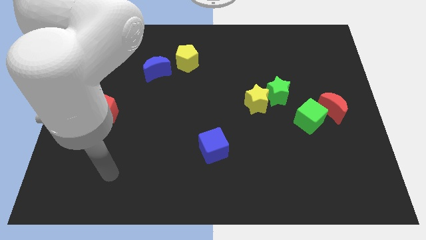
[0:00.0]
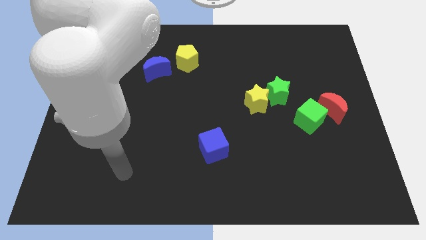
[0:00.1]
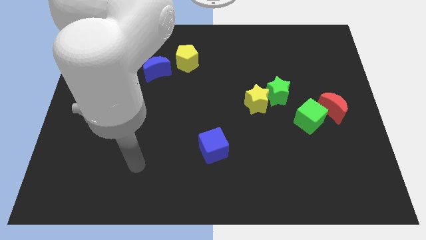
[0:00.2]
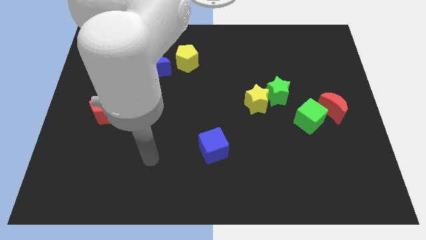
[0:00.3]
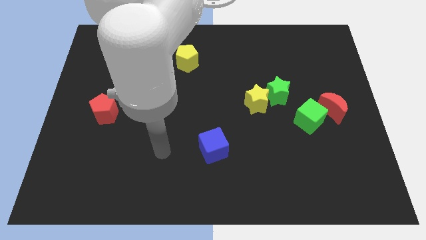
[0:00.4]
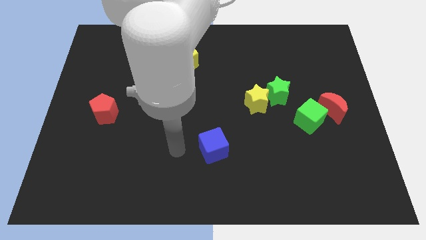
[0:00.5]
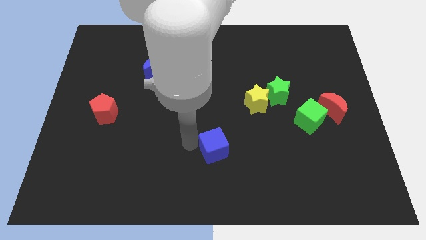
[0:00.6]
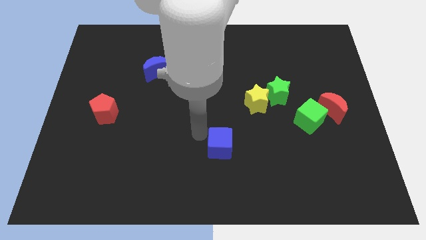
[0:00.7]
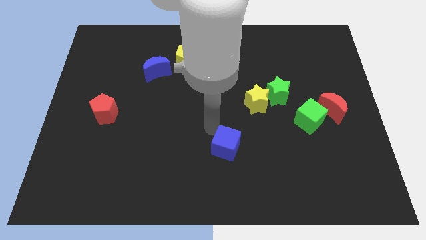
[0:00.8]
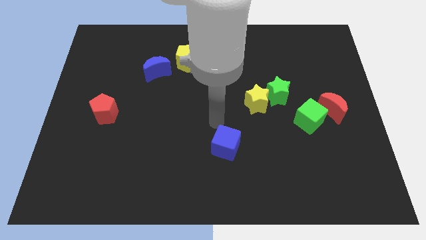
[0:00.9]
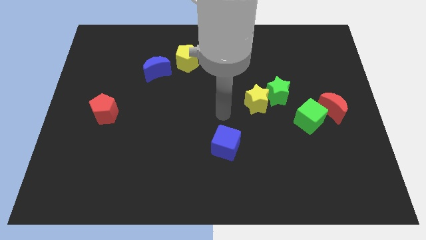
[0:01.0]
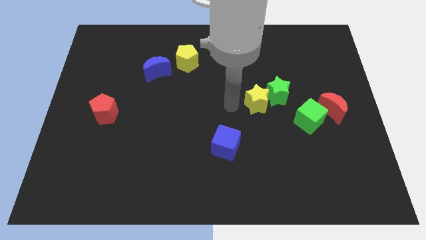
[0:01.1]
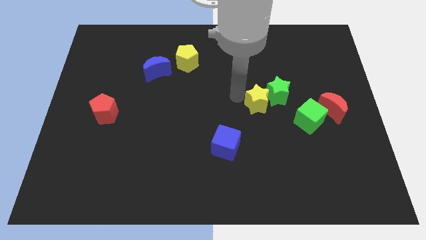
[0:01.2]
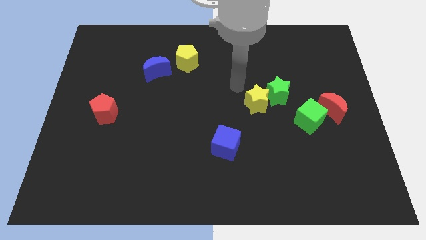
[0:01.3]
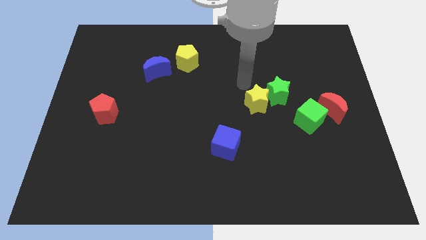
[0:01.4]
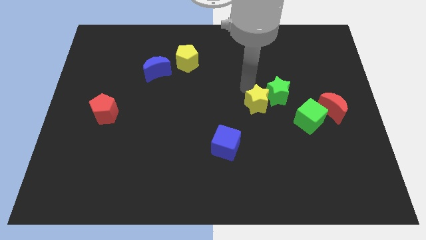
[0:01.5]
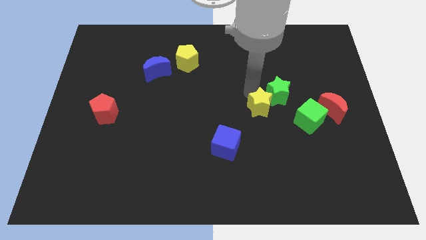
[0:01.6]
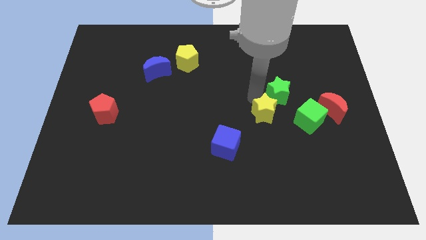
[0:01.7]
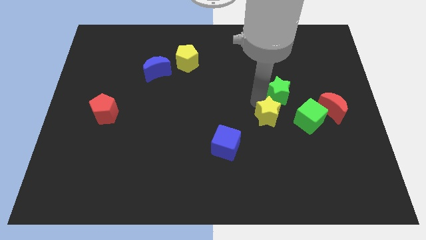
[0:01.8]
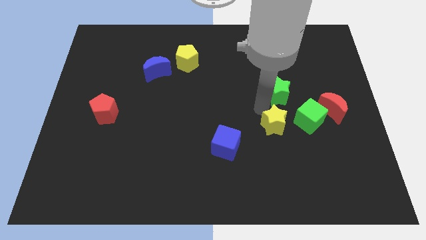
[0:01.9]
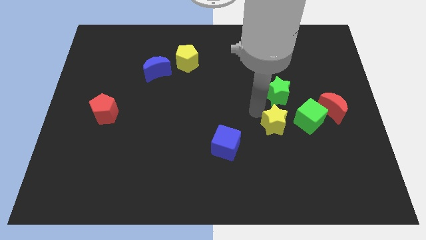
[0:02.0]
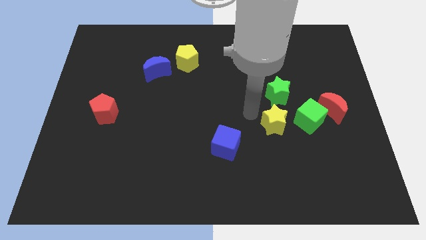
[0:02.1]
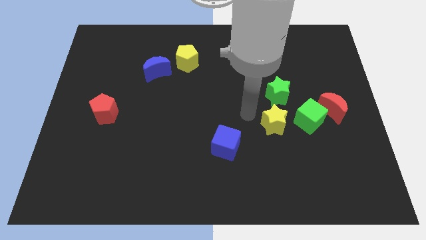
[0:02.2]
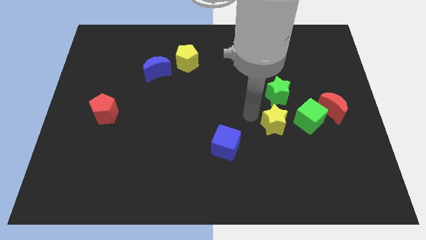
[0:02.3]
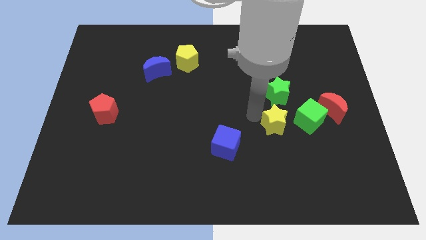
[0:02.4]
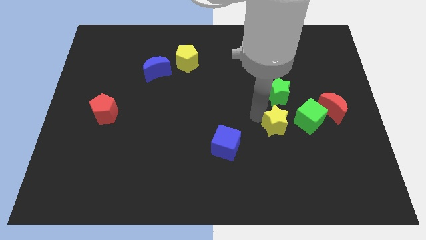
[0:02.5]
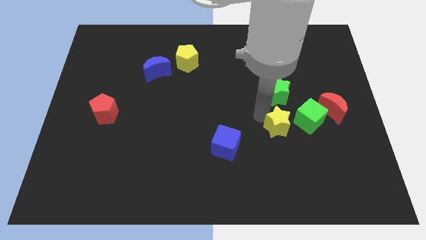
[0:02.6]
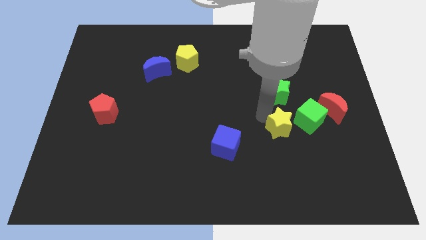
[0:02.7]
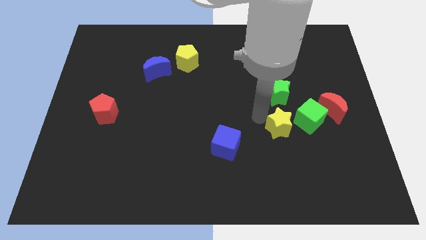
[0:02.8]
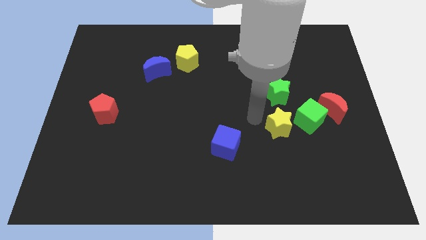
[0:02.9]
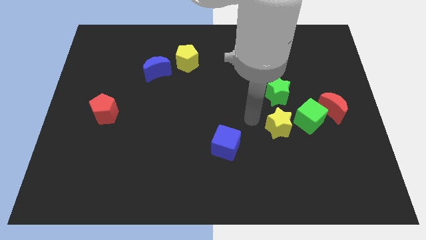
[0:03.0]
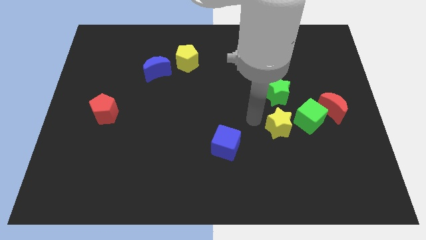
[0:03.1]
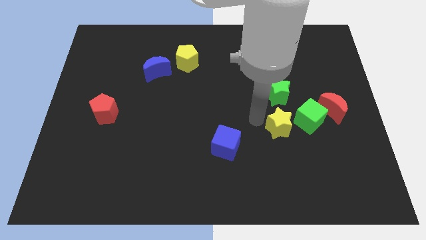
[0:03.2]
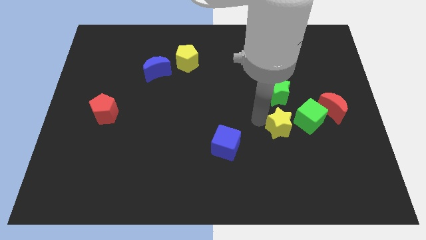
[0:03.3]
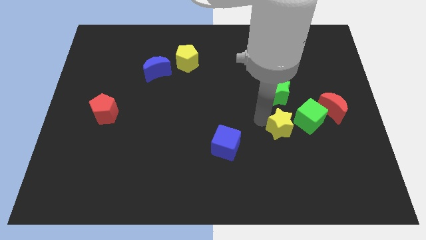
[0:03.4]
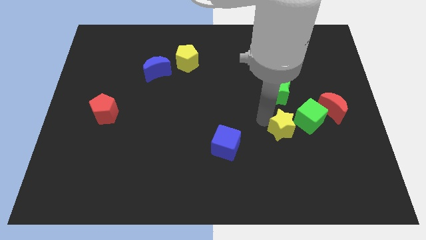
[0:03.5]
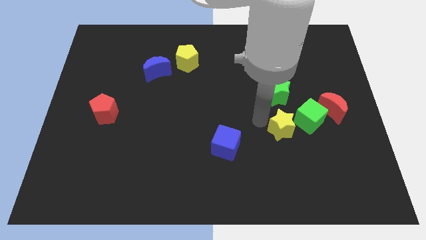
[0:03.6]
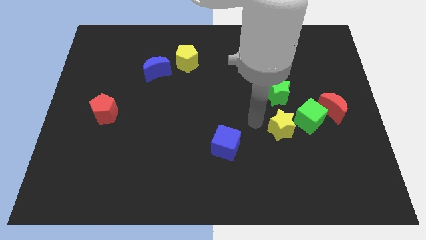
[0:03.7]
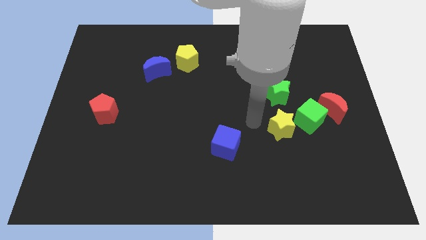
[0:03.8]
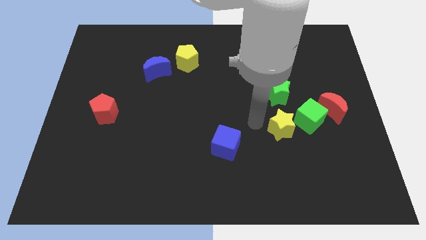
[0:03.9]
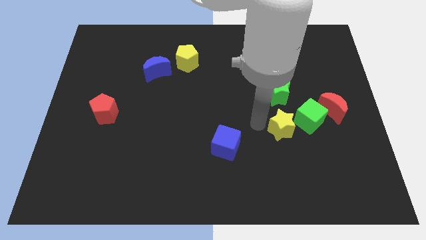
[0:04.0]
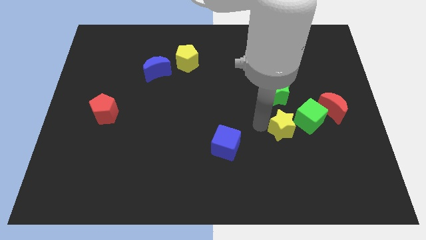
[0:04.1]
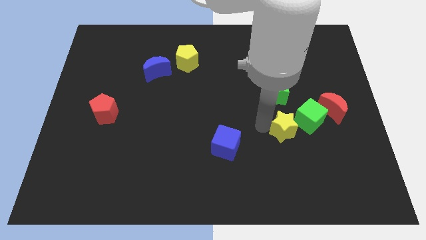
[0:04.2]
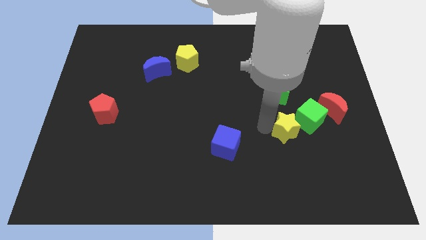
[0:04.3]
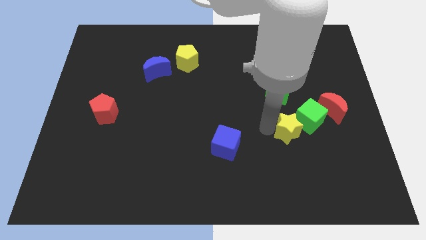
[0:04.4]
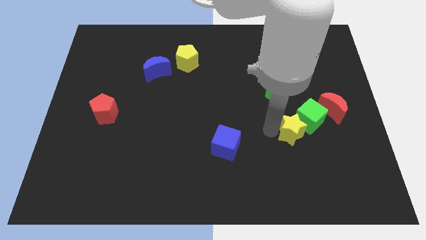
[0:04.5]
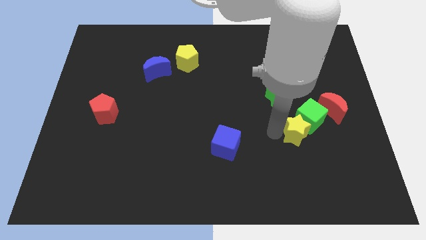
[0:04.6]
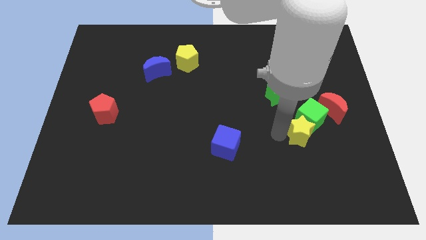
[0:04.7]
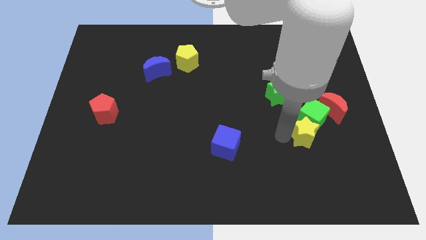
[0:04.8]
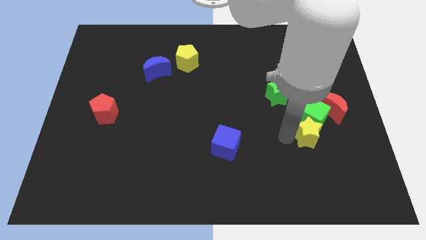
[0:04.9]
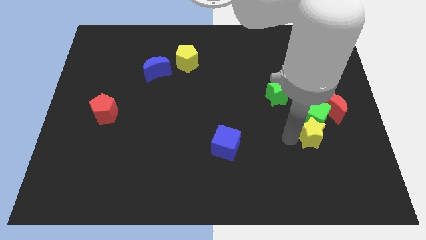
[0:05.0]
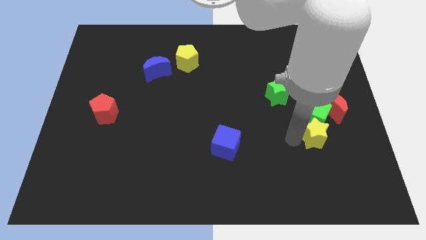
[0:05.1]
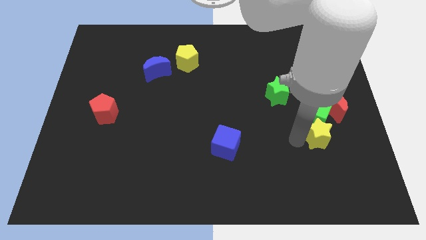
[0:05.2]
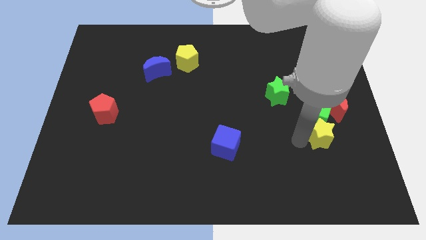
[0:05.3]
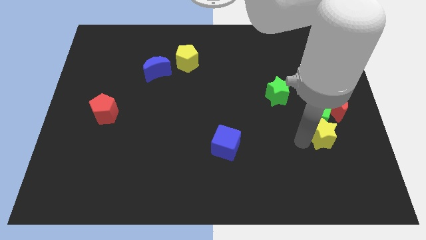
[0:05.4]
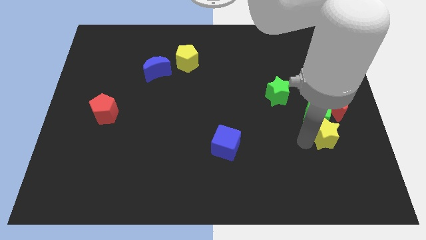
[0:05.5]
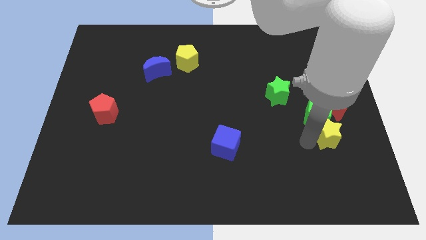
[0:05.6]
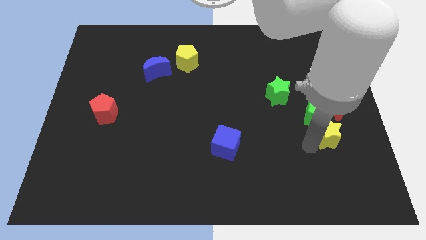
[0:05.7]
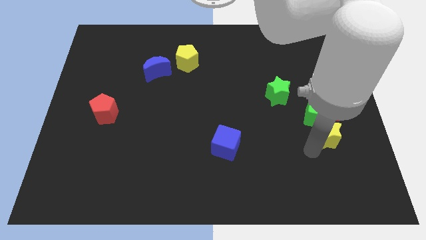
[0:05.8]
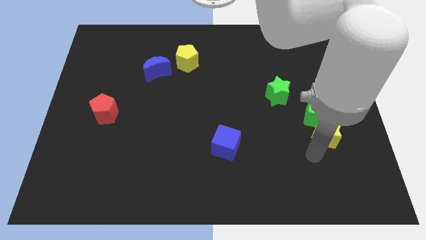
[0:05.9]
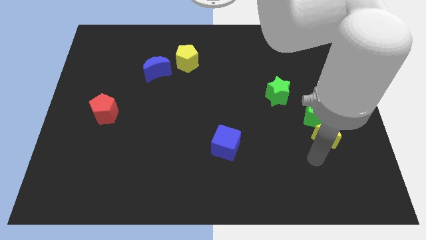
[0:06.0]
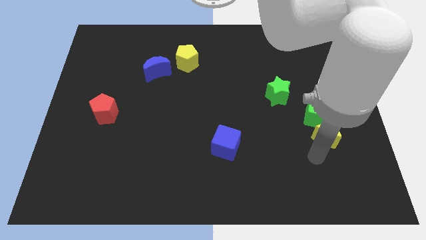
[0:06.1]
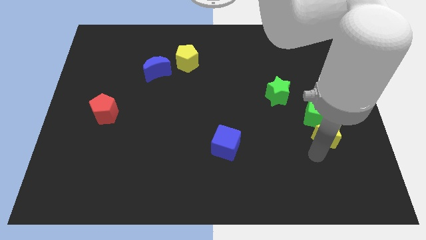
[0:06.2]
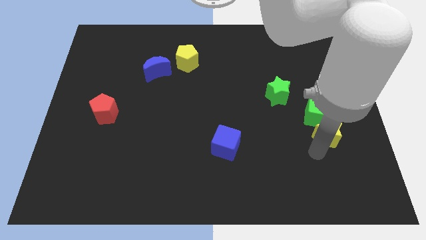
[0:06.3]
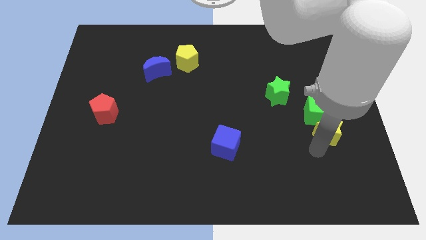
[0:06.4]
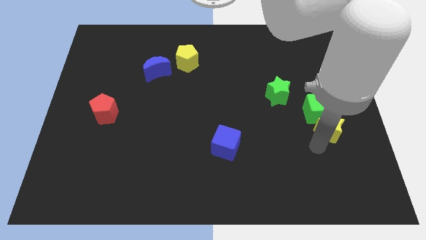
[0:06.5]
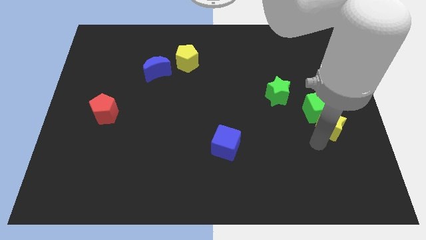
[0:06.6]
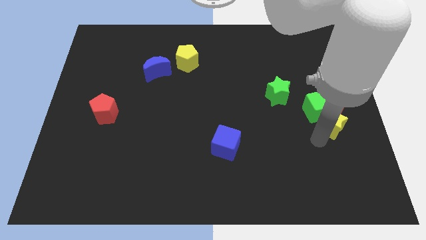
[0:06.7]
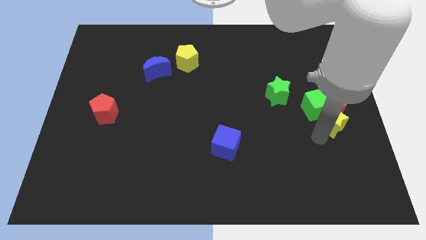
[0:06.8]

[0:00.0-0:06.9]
put the yellow star to the red moon

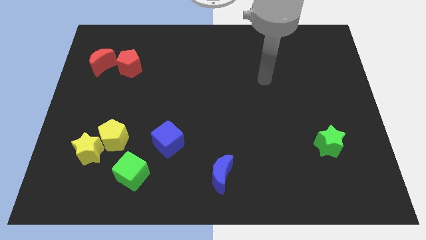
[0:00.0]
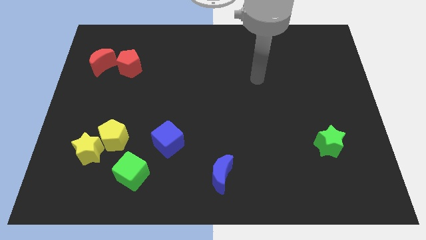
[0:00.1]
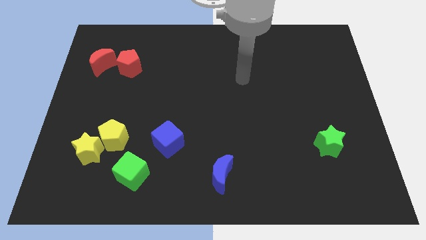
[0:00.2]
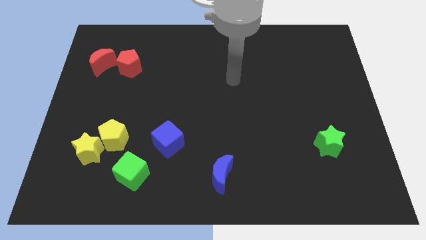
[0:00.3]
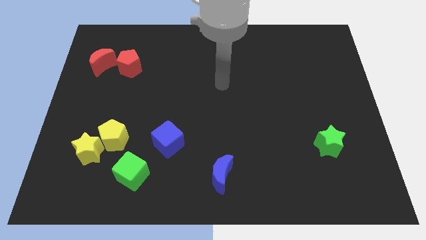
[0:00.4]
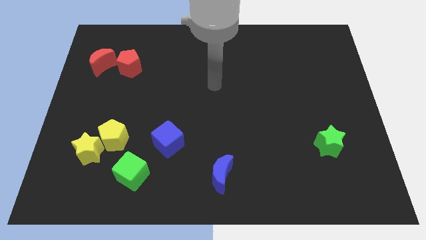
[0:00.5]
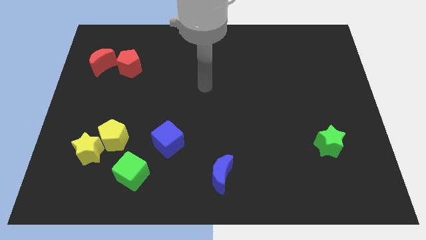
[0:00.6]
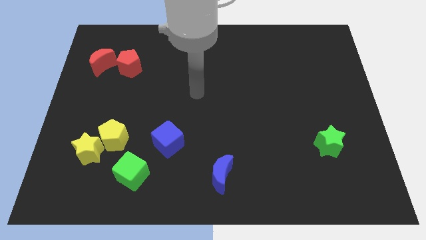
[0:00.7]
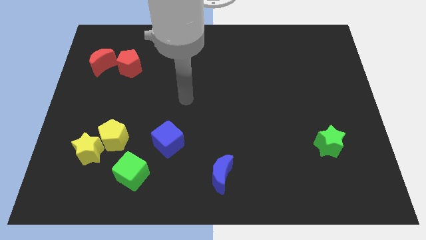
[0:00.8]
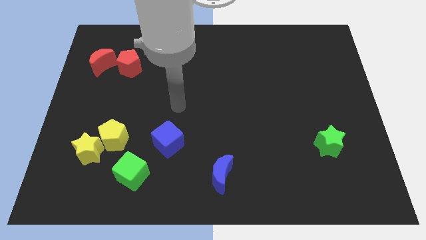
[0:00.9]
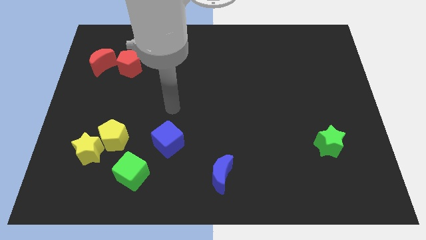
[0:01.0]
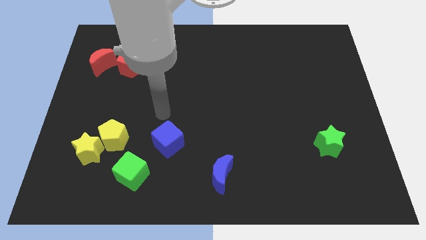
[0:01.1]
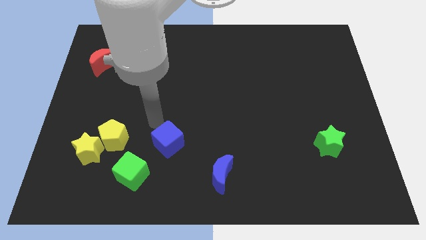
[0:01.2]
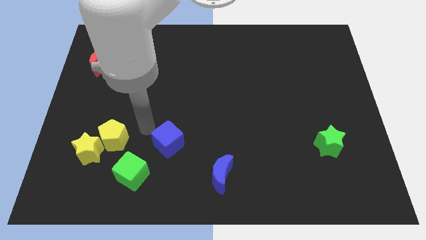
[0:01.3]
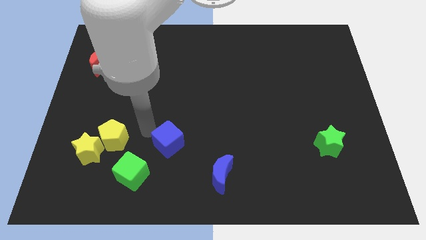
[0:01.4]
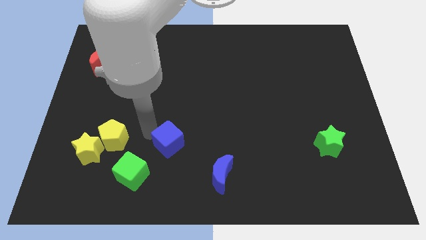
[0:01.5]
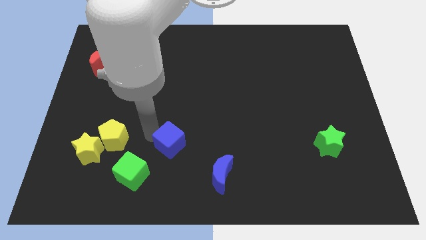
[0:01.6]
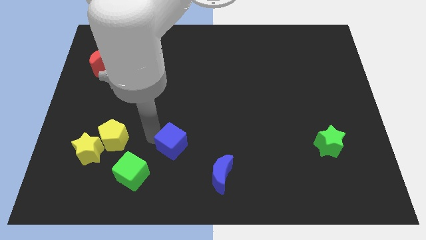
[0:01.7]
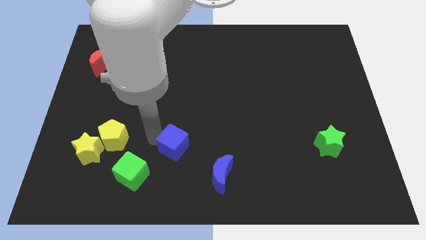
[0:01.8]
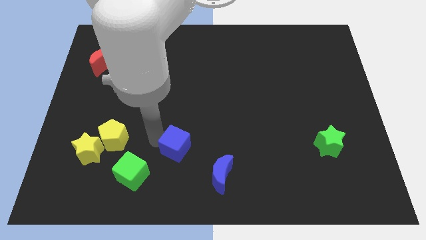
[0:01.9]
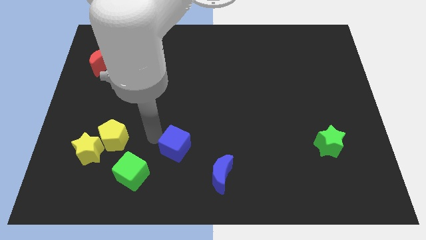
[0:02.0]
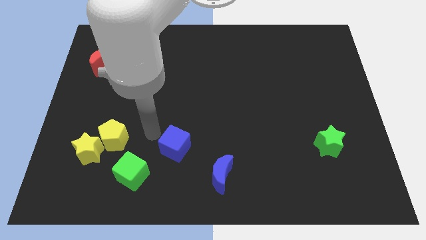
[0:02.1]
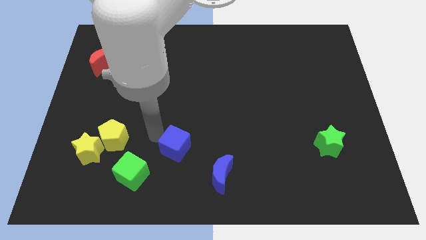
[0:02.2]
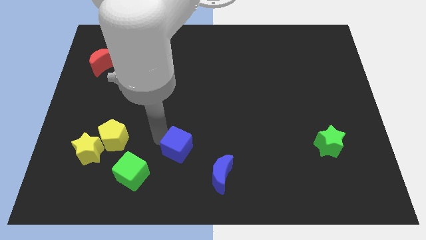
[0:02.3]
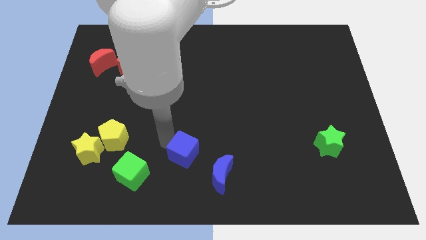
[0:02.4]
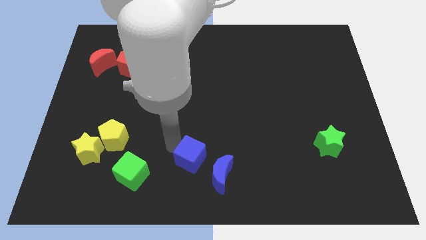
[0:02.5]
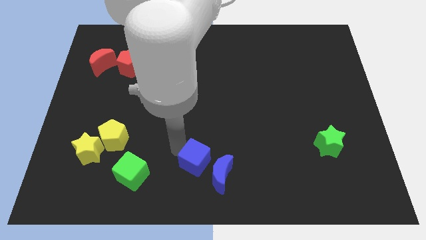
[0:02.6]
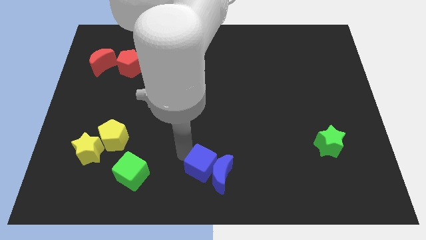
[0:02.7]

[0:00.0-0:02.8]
push the blue cube next to the blue moon
